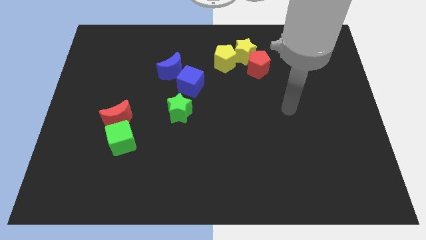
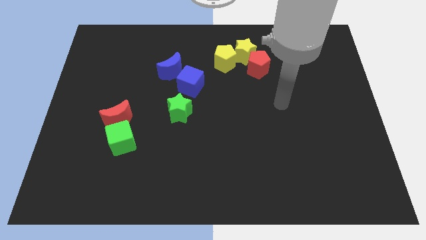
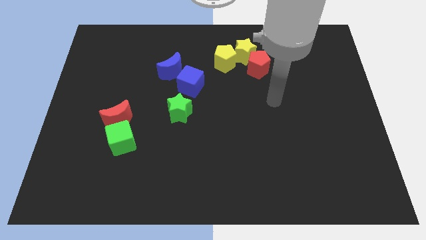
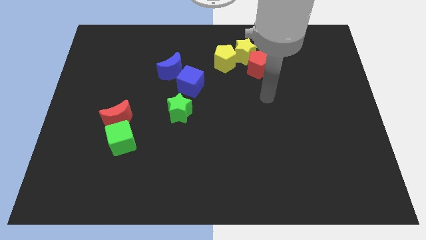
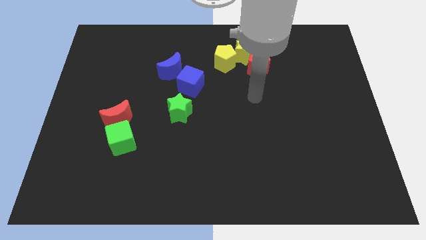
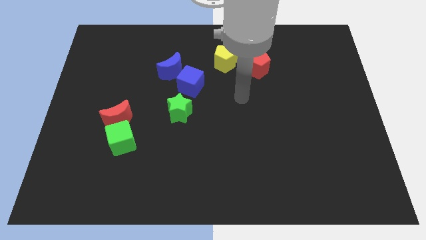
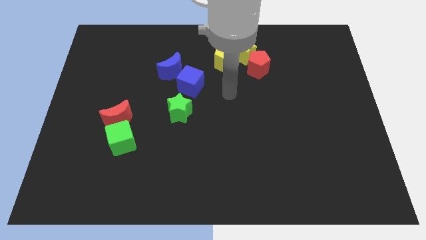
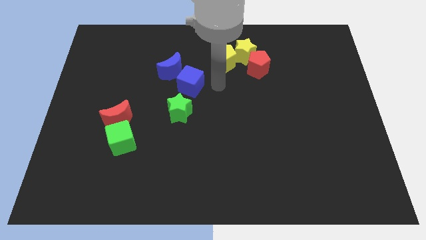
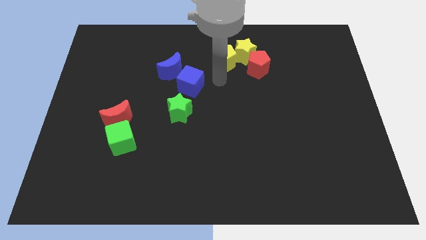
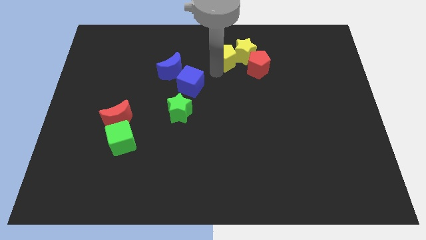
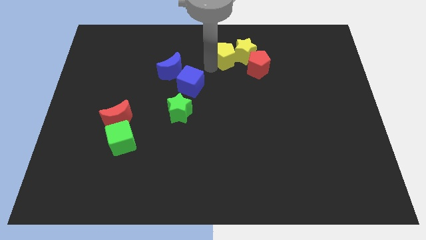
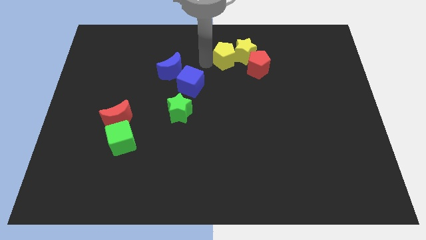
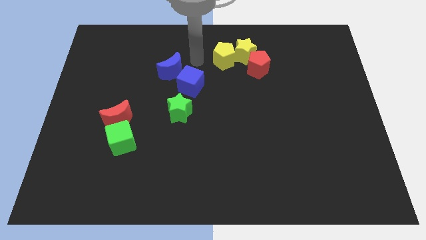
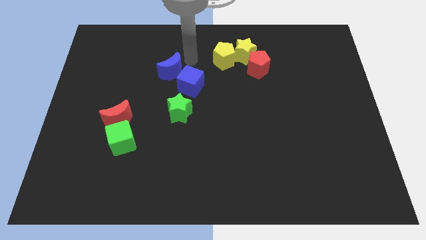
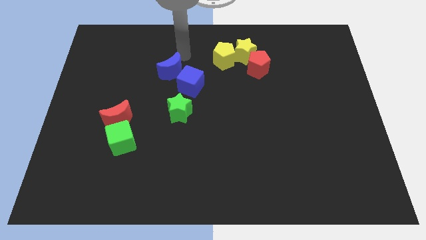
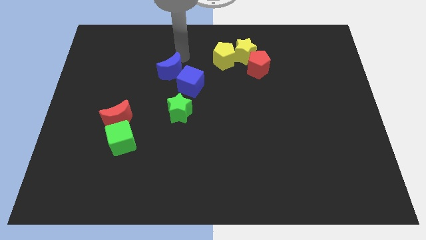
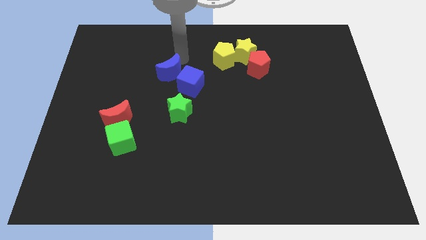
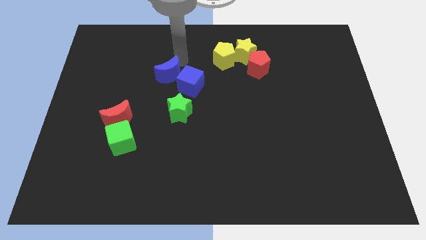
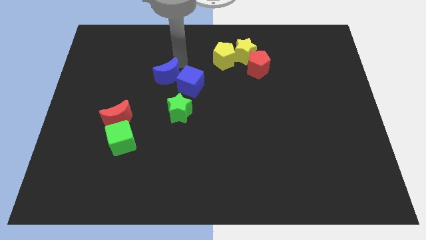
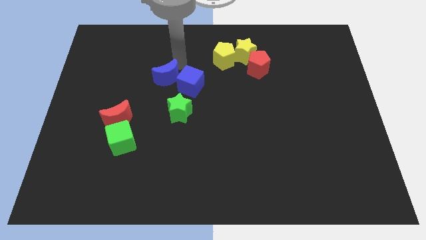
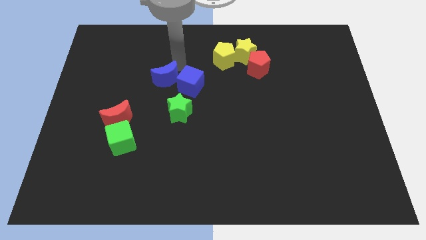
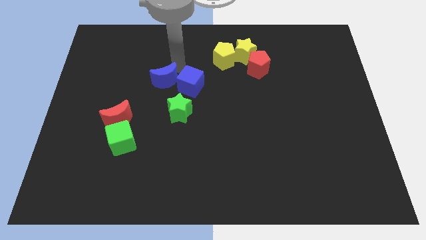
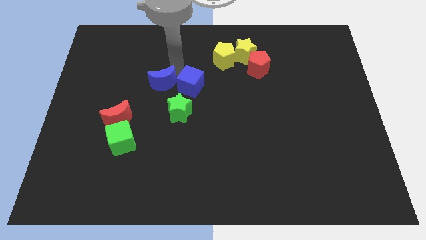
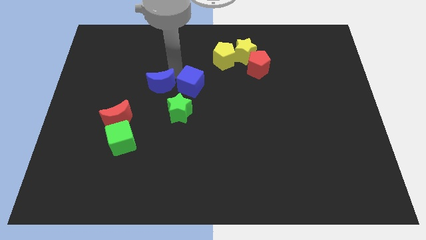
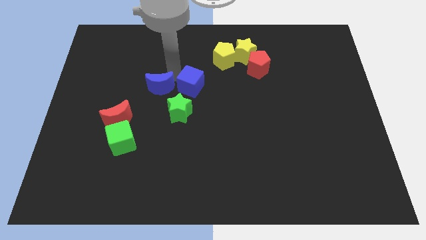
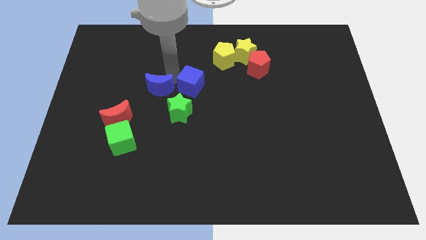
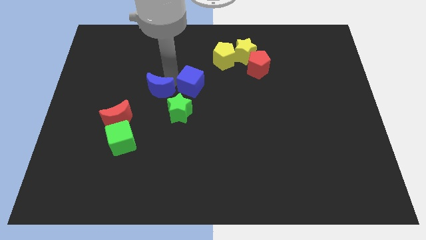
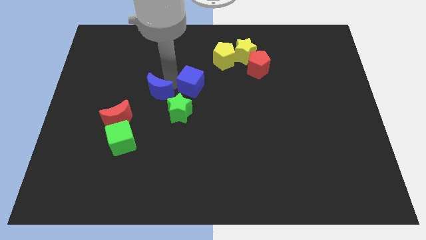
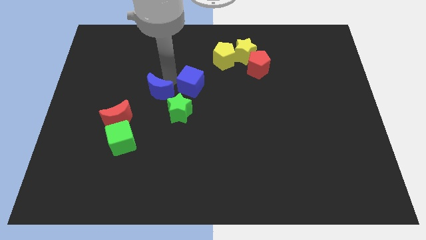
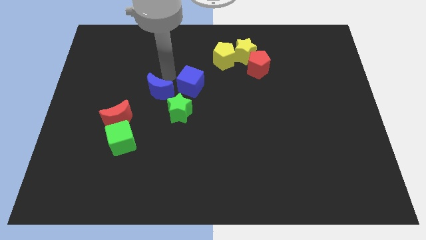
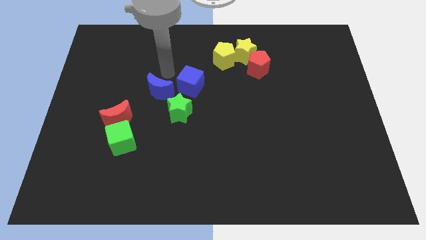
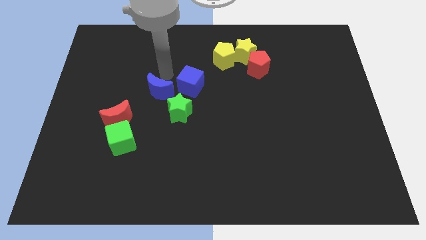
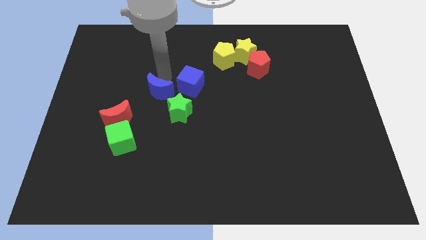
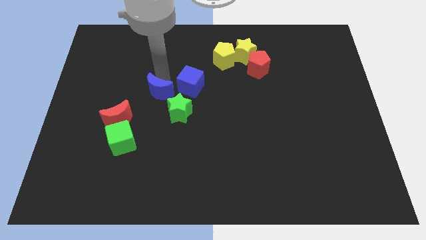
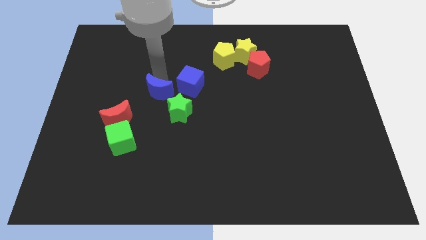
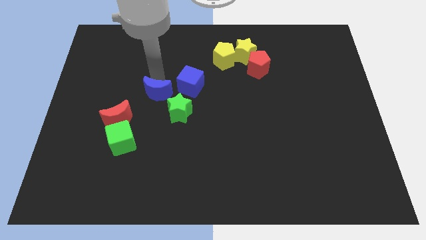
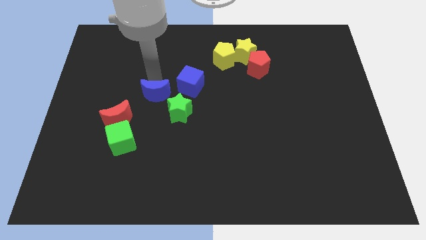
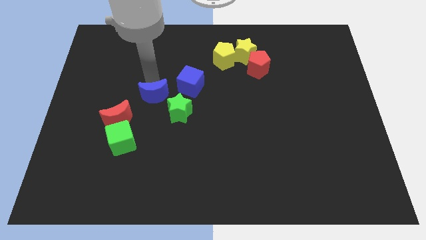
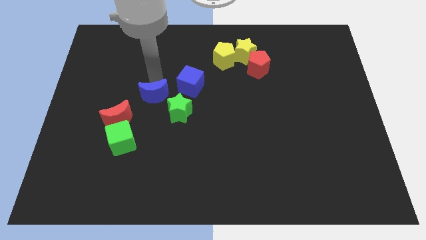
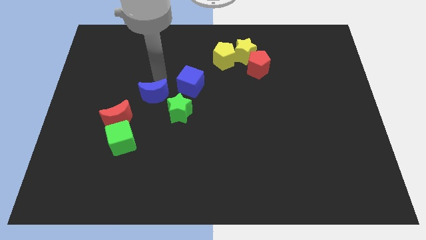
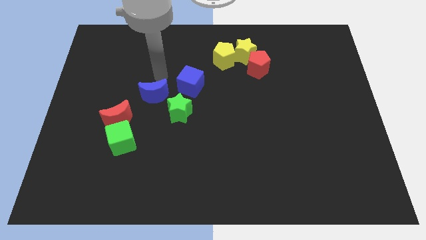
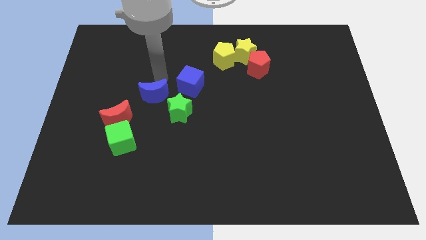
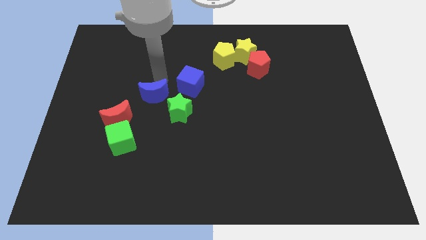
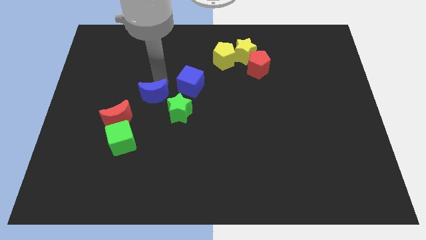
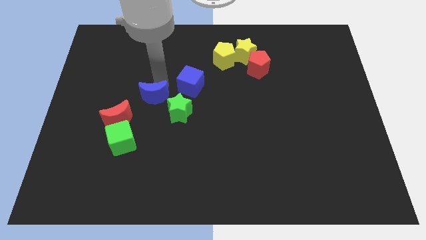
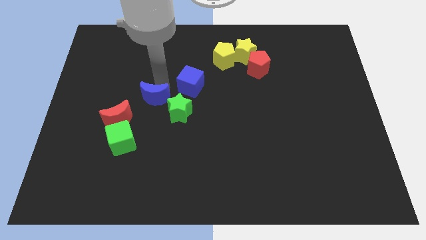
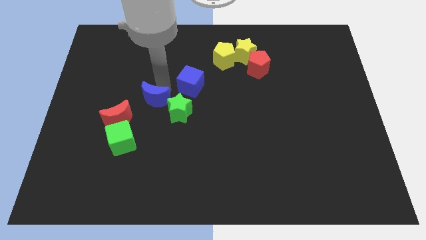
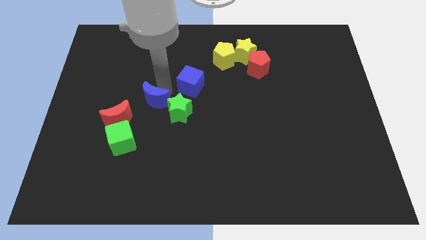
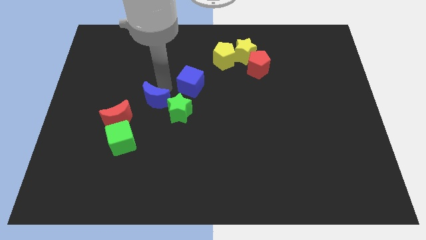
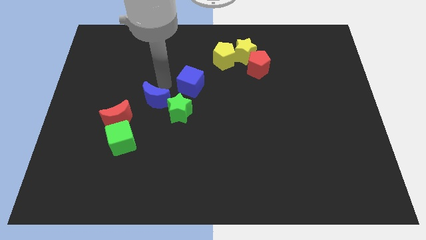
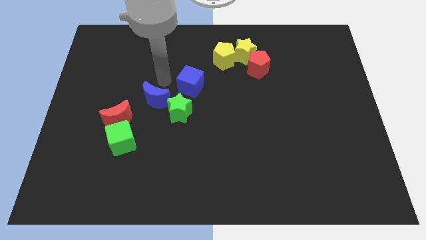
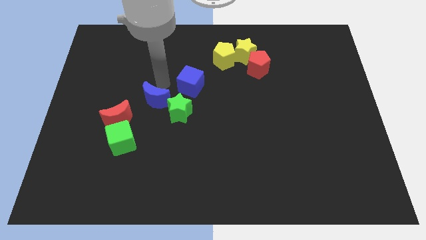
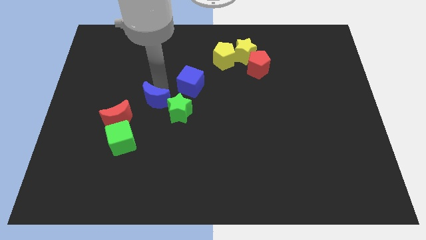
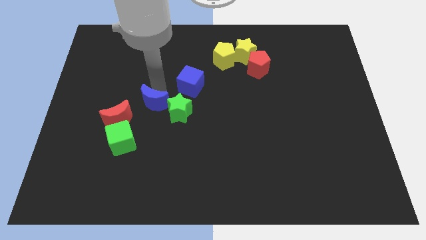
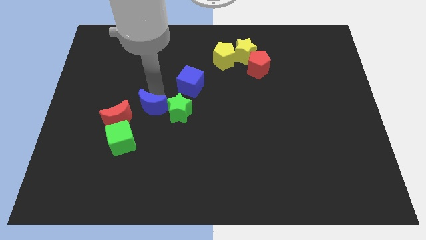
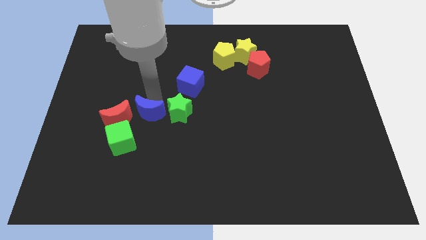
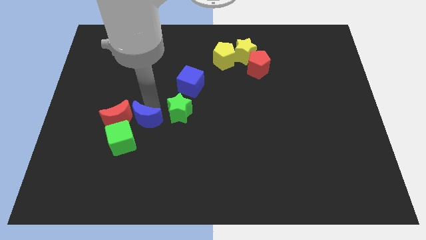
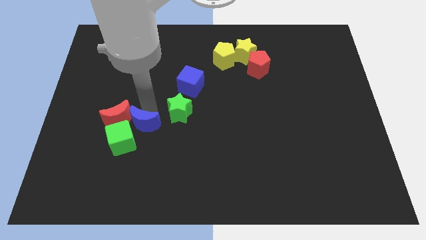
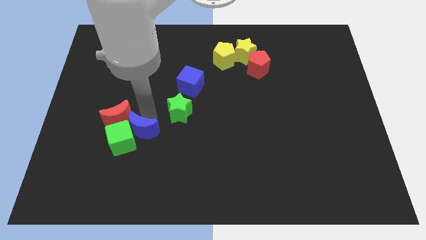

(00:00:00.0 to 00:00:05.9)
push the blue moon towards the green cube

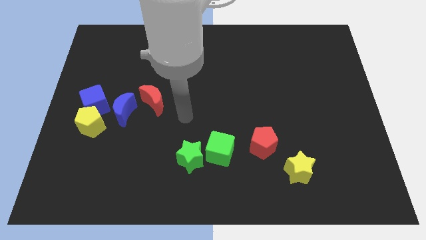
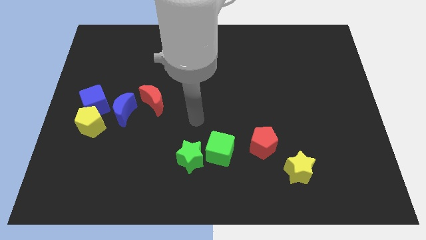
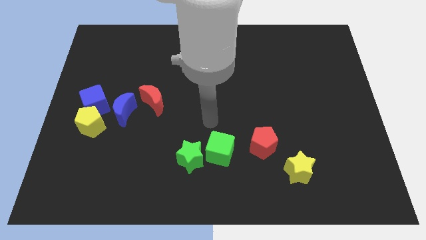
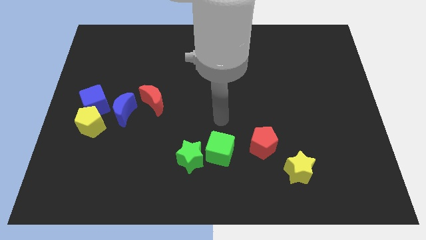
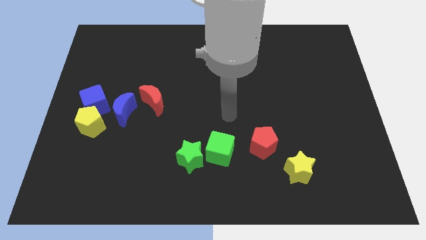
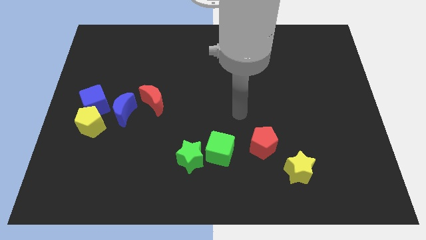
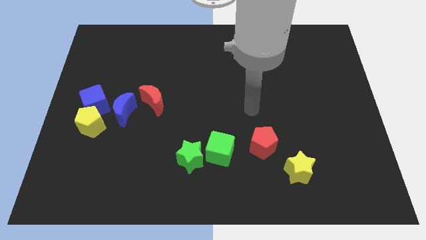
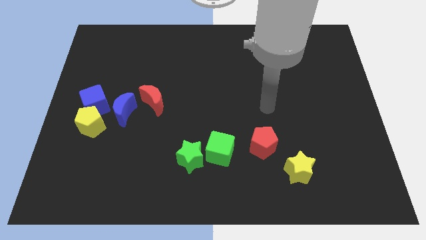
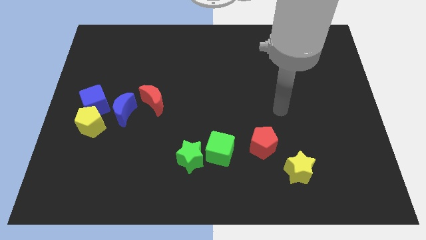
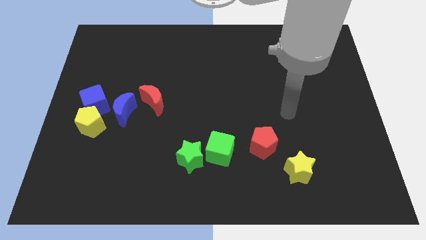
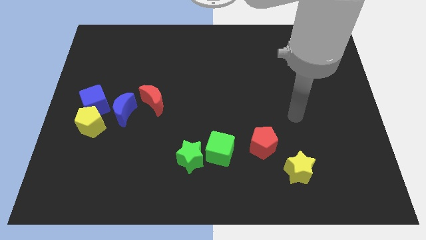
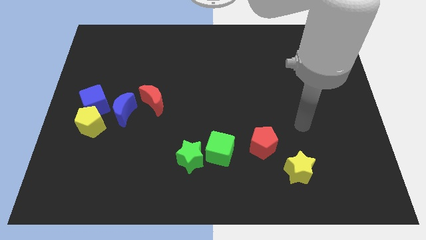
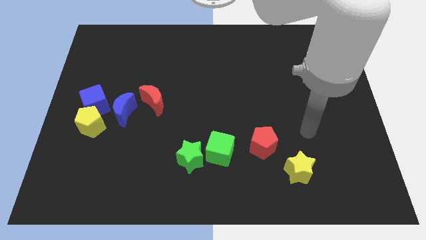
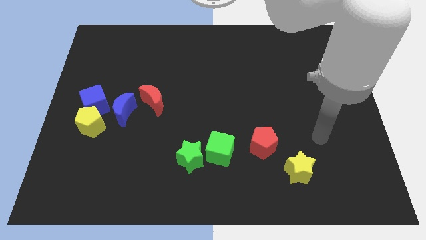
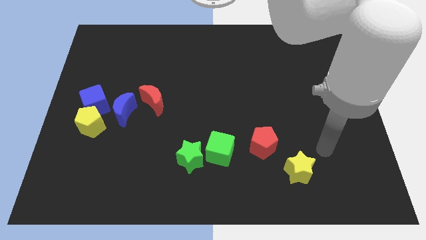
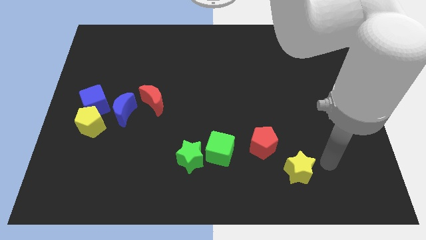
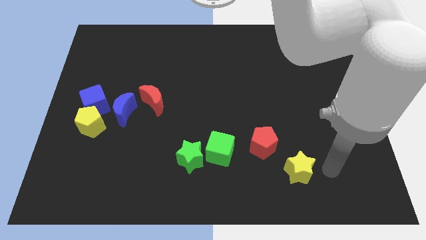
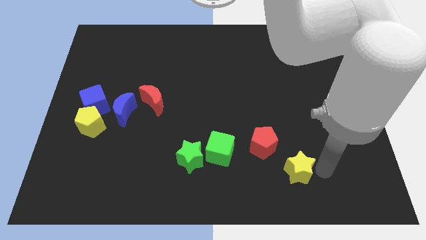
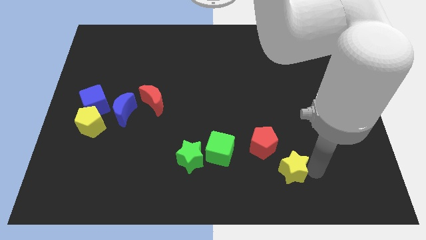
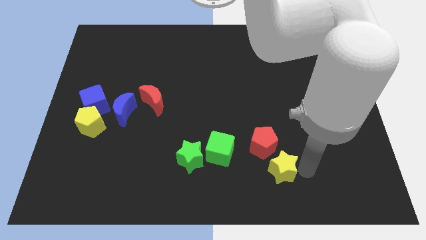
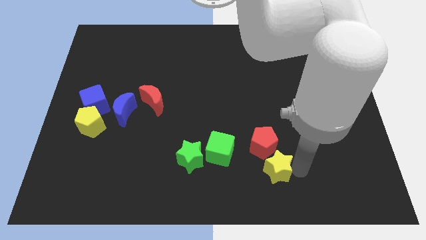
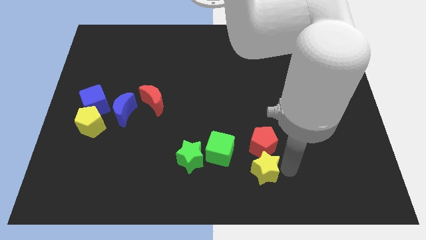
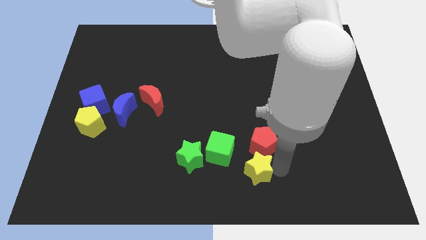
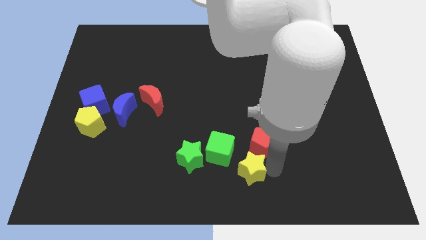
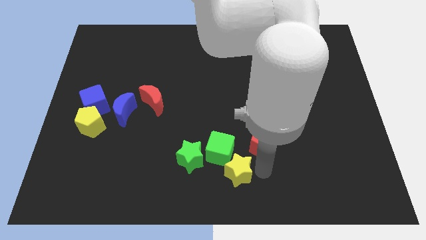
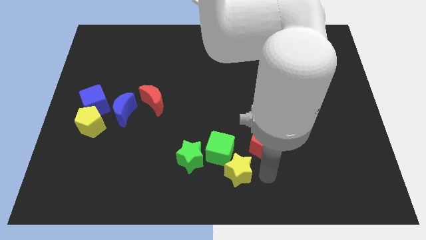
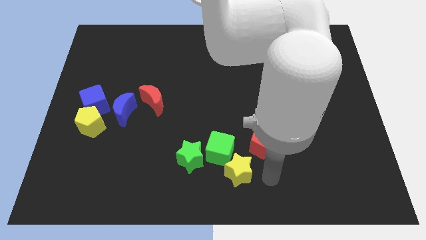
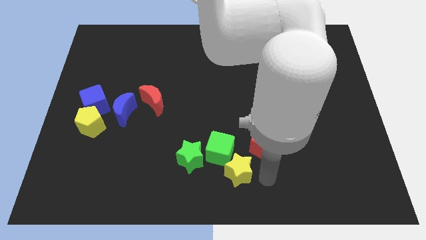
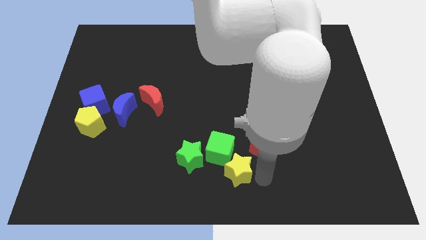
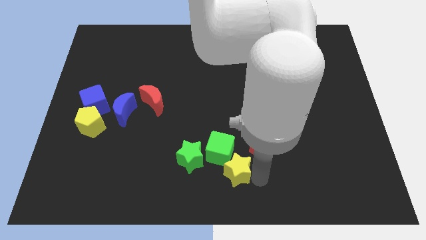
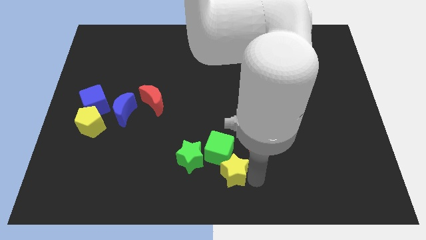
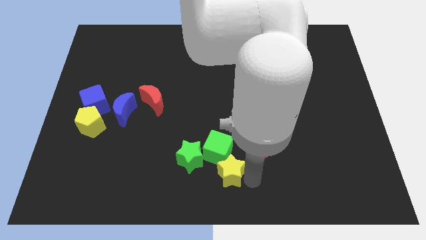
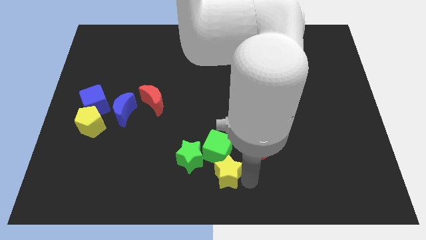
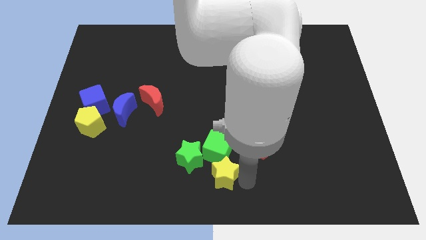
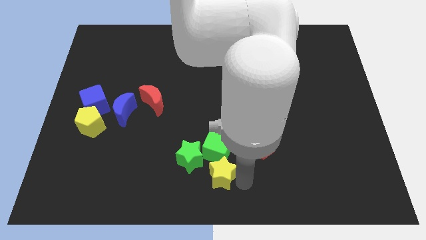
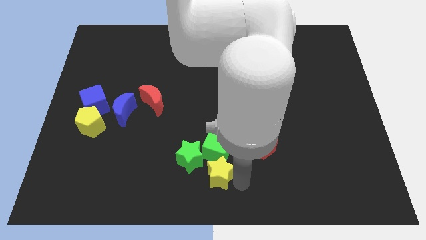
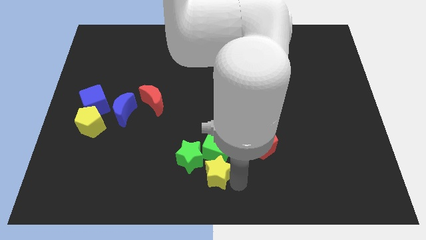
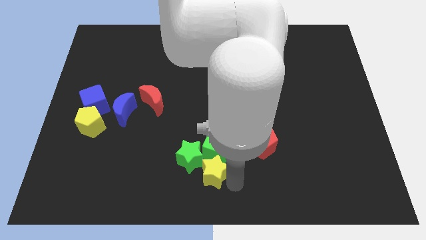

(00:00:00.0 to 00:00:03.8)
put the yellow star towards the green star
